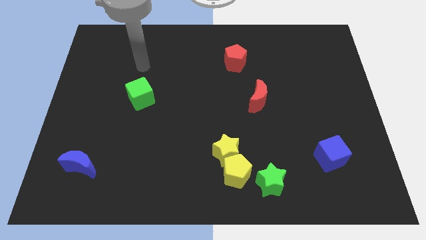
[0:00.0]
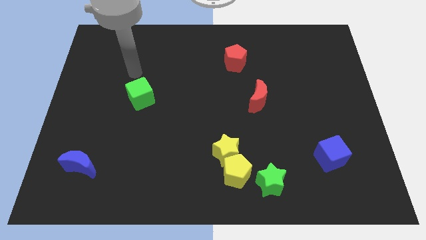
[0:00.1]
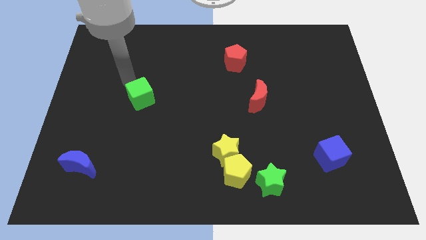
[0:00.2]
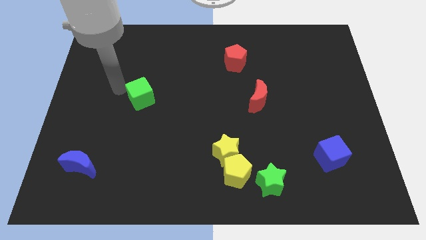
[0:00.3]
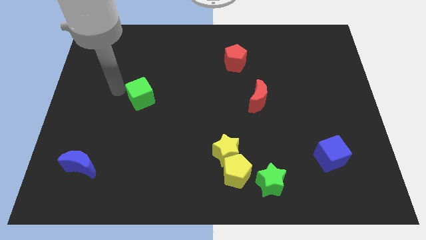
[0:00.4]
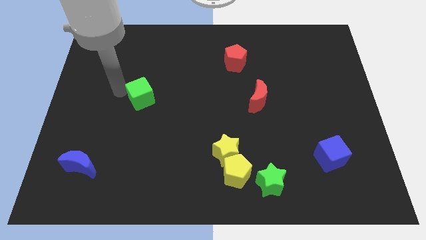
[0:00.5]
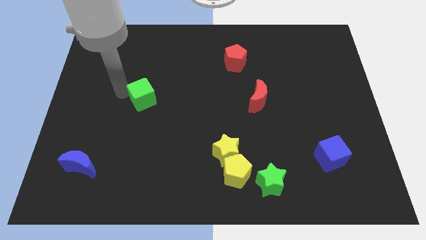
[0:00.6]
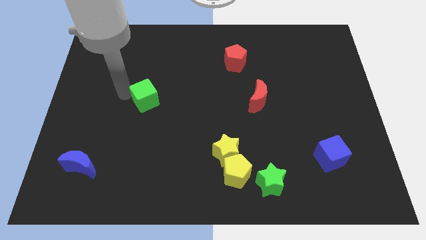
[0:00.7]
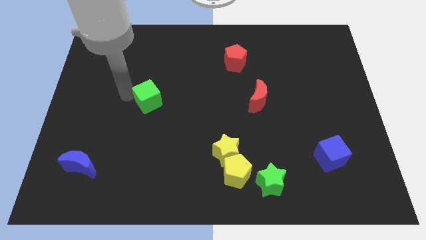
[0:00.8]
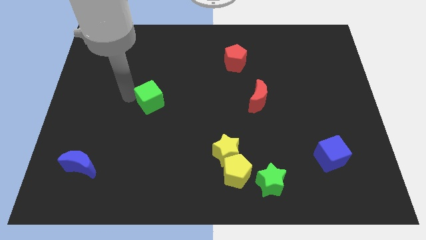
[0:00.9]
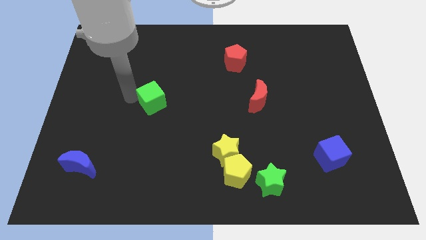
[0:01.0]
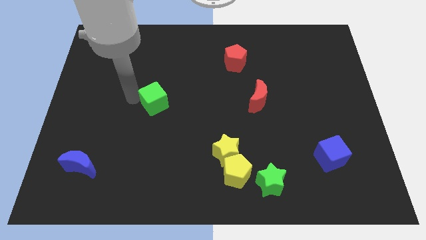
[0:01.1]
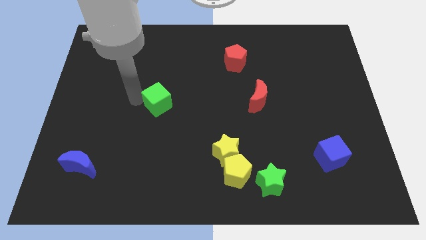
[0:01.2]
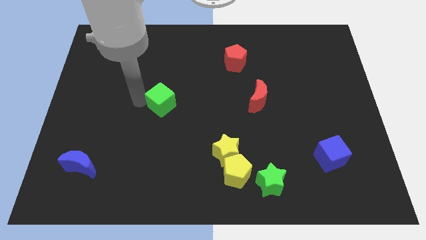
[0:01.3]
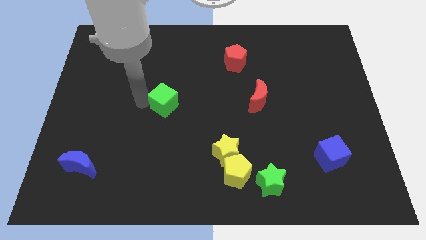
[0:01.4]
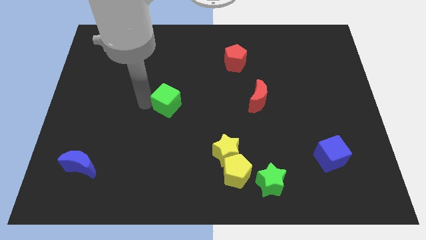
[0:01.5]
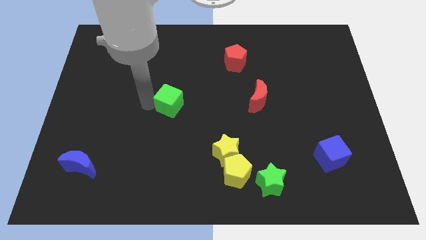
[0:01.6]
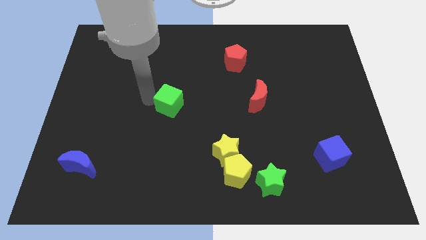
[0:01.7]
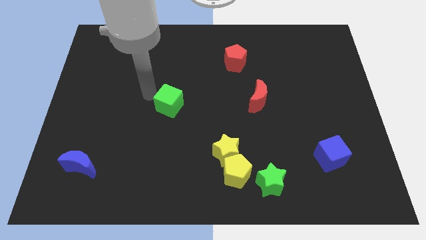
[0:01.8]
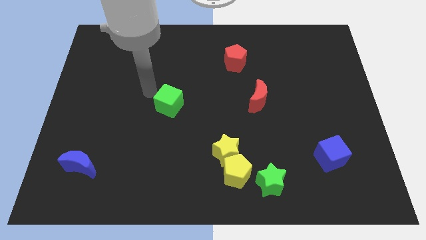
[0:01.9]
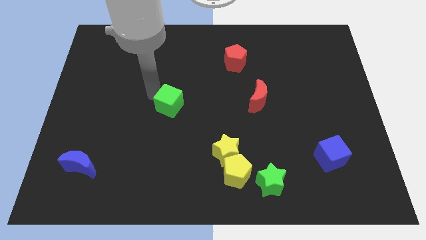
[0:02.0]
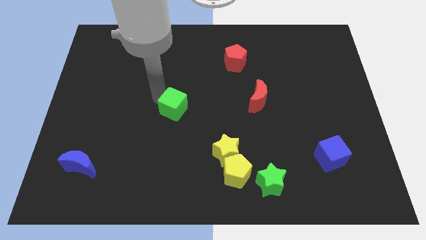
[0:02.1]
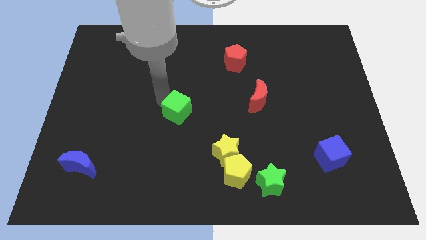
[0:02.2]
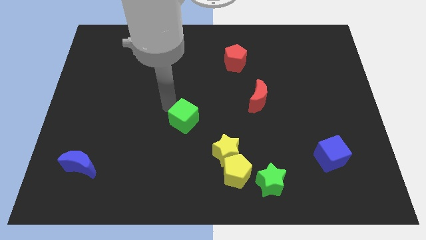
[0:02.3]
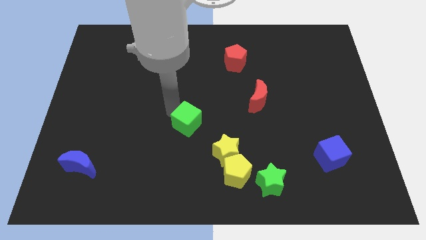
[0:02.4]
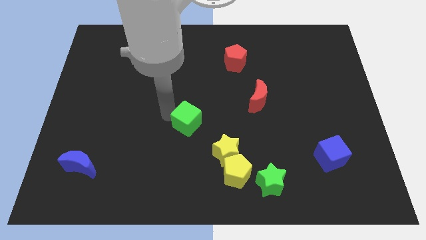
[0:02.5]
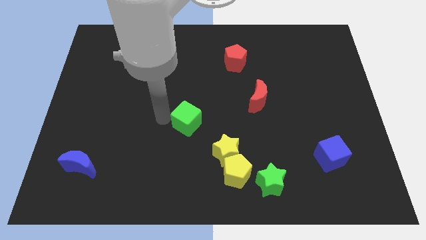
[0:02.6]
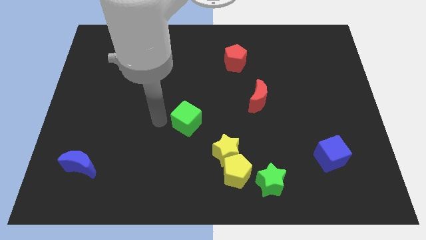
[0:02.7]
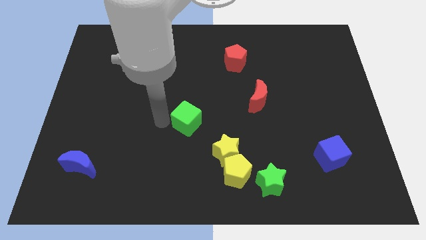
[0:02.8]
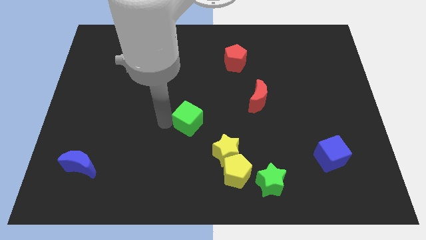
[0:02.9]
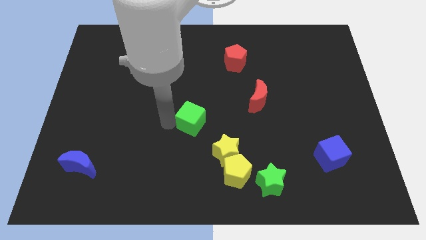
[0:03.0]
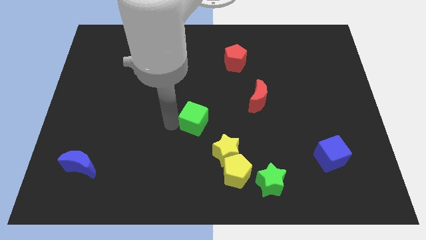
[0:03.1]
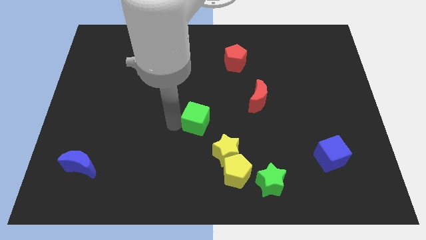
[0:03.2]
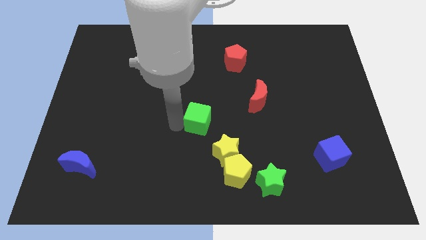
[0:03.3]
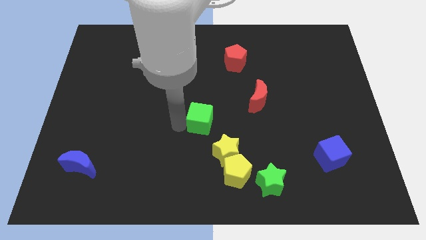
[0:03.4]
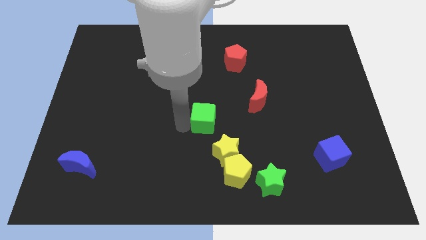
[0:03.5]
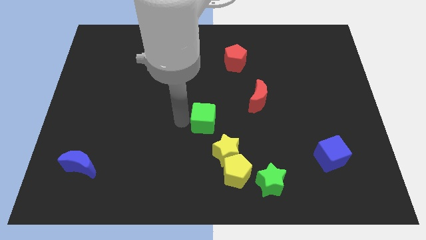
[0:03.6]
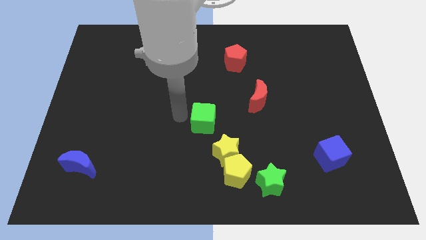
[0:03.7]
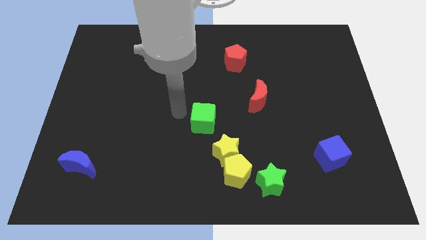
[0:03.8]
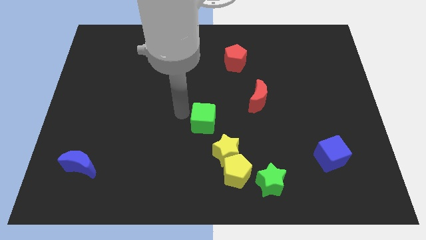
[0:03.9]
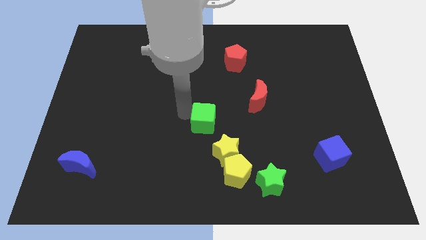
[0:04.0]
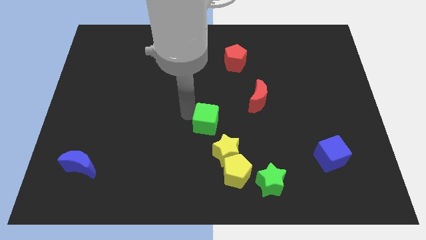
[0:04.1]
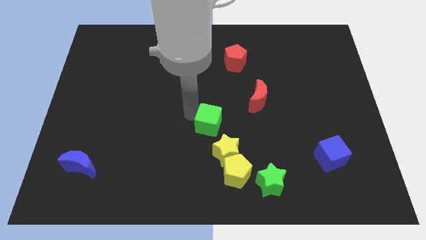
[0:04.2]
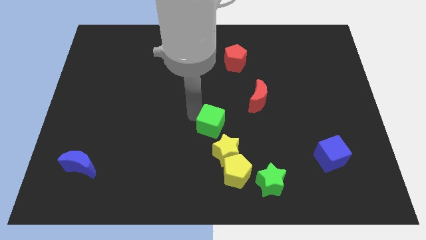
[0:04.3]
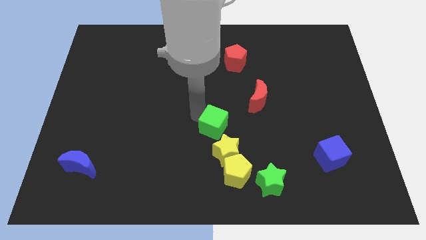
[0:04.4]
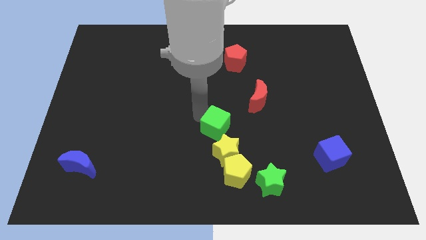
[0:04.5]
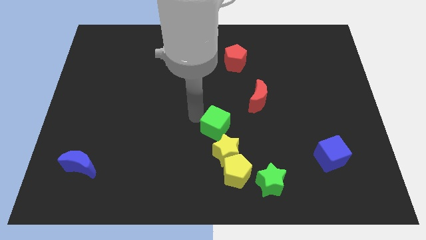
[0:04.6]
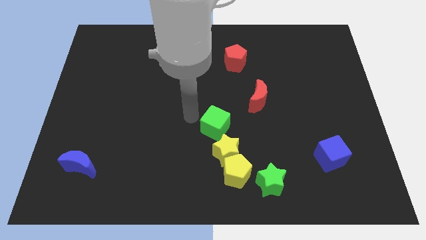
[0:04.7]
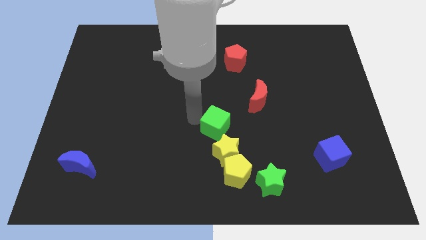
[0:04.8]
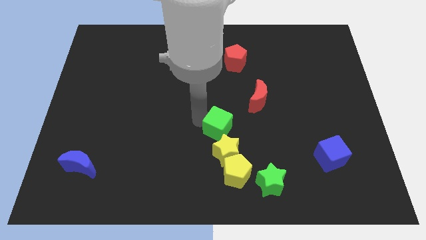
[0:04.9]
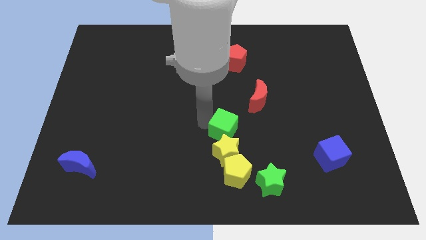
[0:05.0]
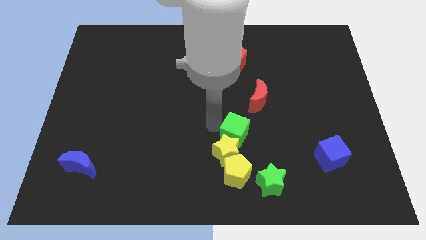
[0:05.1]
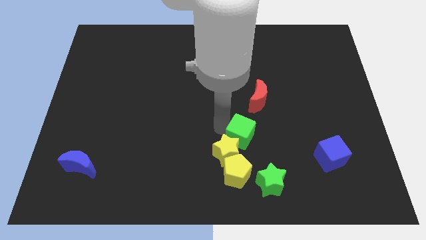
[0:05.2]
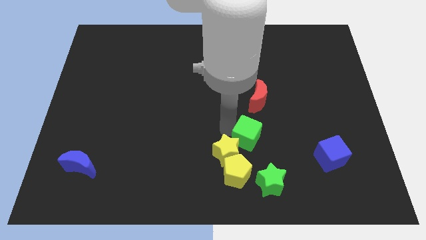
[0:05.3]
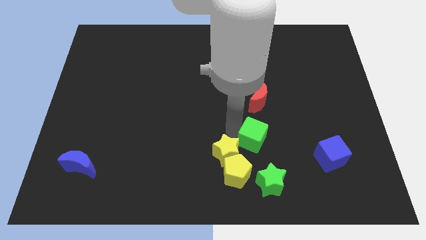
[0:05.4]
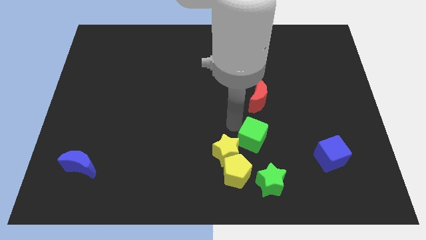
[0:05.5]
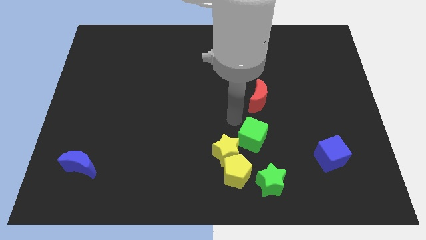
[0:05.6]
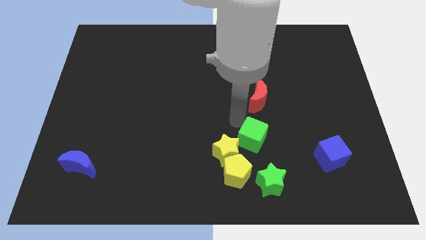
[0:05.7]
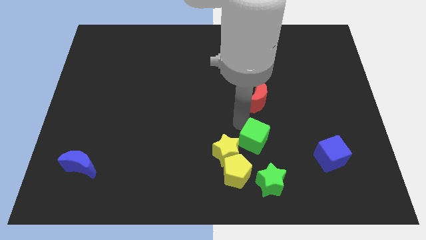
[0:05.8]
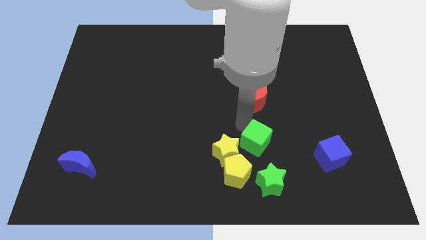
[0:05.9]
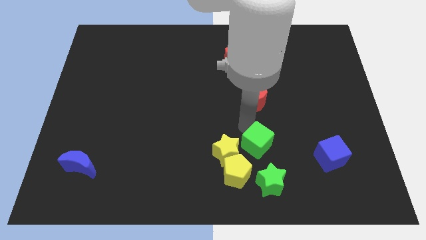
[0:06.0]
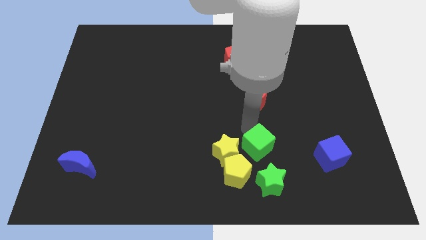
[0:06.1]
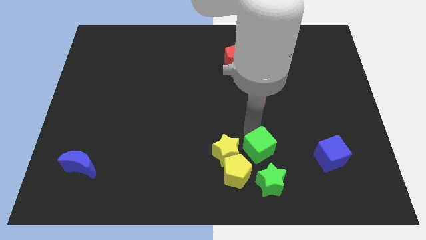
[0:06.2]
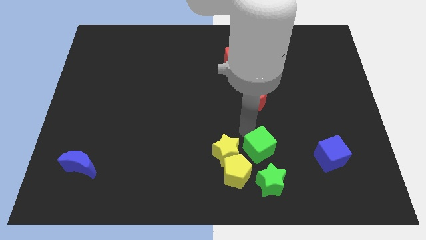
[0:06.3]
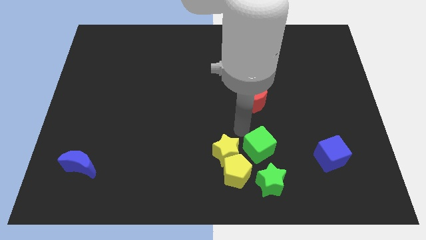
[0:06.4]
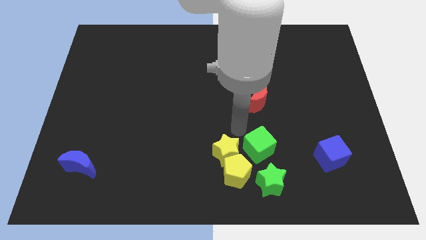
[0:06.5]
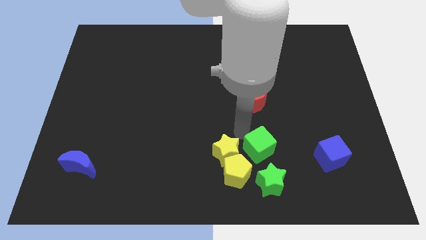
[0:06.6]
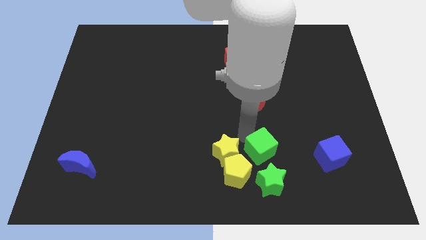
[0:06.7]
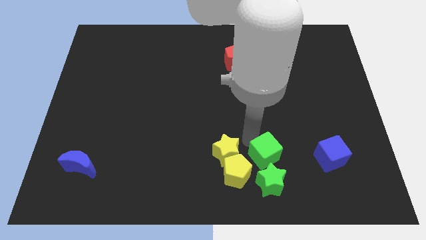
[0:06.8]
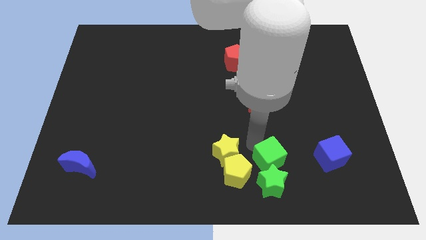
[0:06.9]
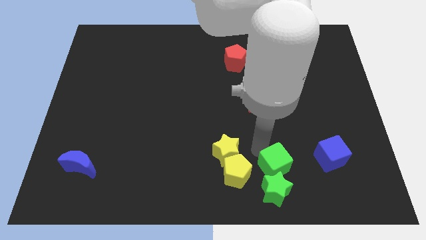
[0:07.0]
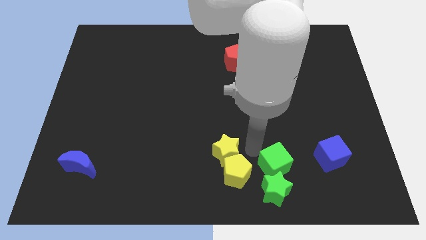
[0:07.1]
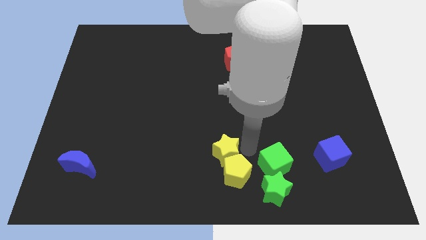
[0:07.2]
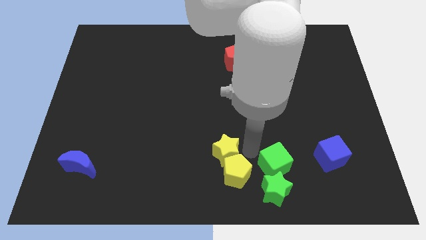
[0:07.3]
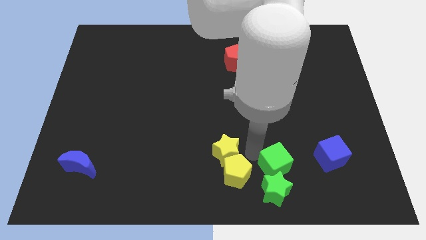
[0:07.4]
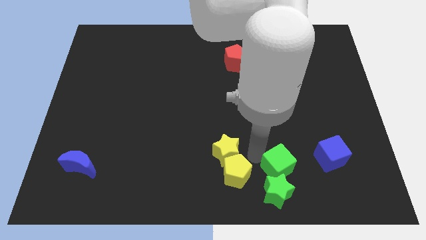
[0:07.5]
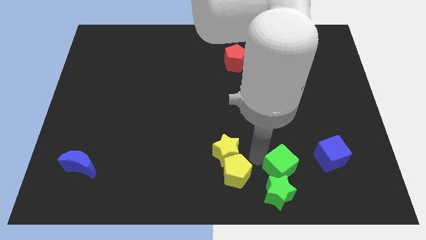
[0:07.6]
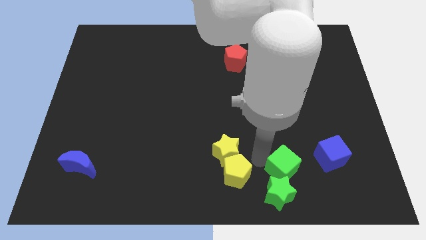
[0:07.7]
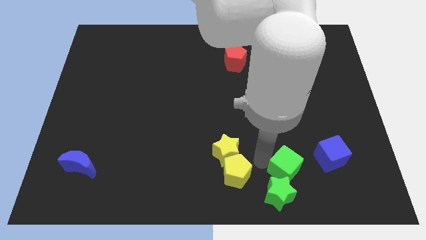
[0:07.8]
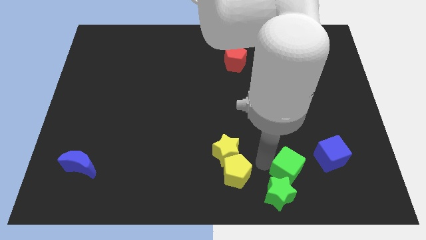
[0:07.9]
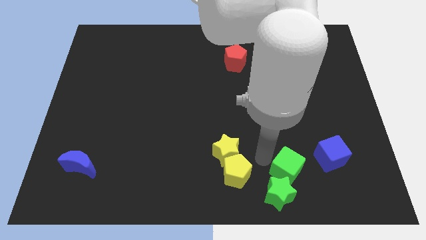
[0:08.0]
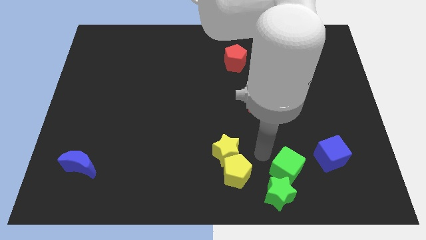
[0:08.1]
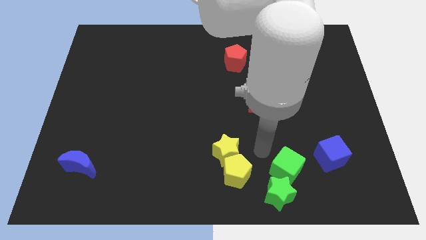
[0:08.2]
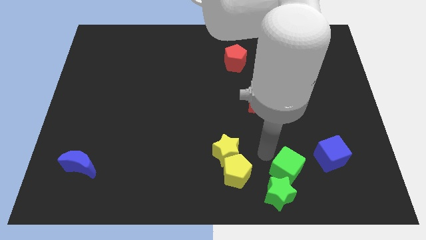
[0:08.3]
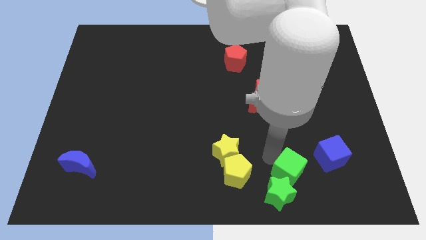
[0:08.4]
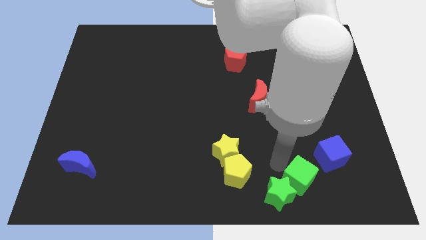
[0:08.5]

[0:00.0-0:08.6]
put the green cube right of the green star
